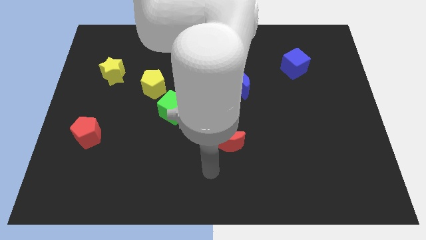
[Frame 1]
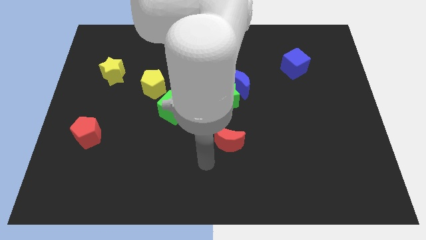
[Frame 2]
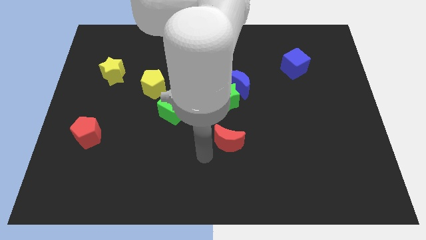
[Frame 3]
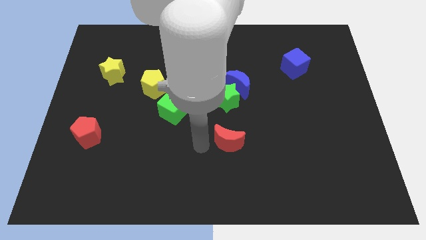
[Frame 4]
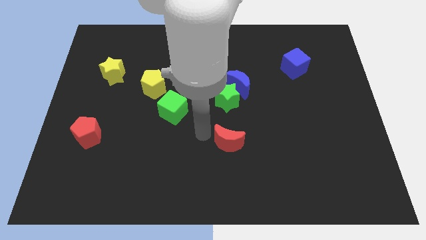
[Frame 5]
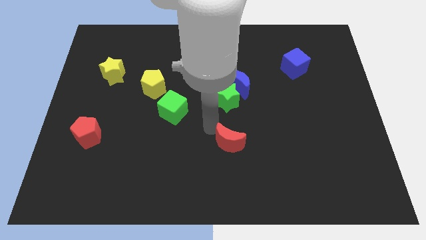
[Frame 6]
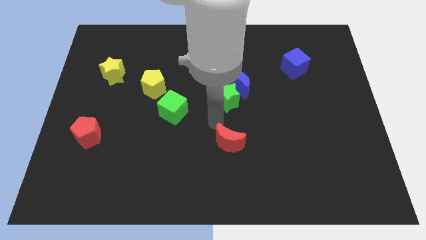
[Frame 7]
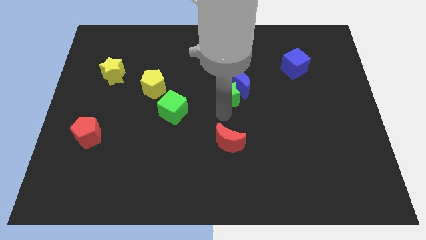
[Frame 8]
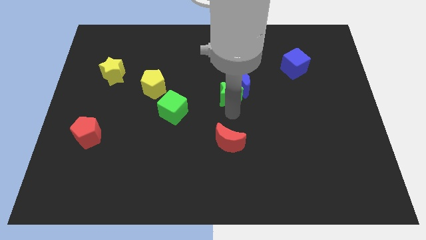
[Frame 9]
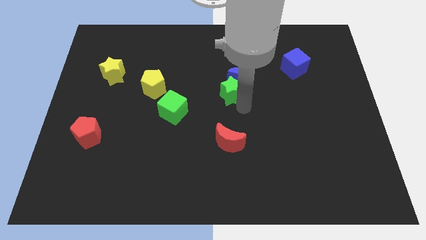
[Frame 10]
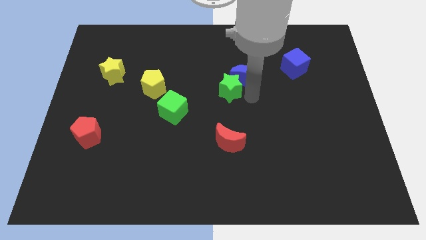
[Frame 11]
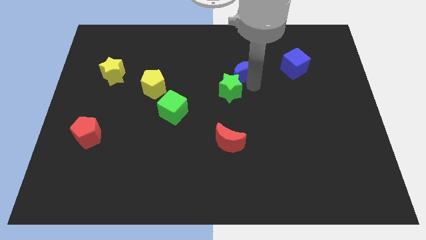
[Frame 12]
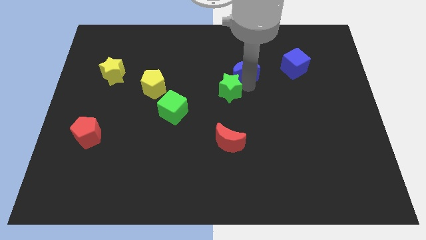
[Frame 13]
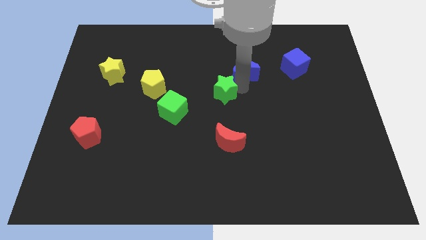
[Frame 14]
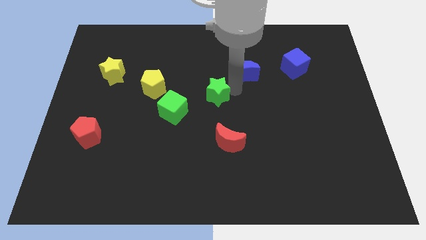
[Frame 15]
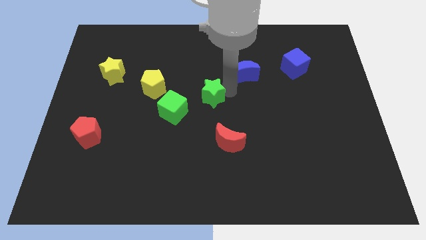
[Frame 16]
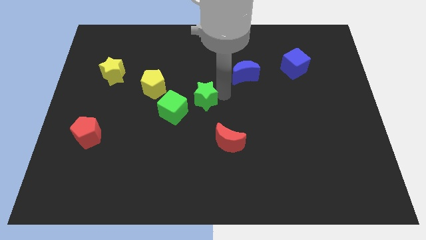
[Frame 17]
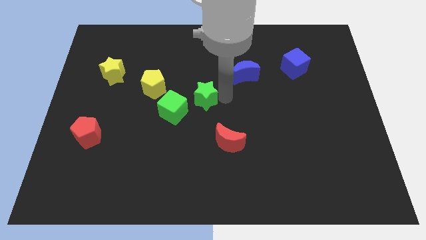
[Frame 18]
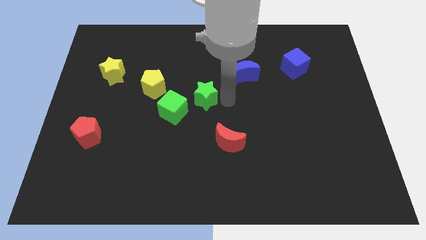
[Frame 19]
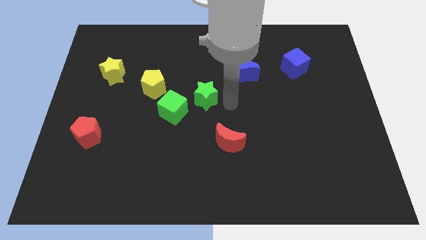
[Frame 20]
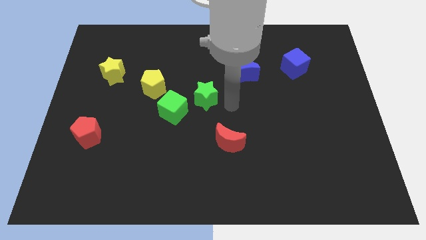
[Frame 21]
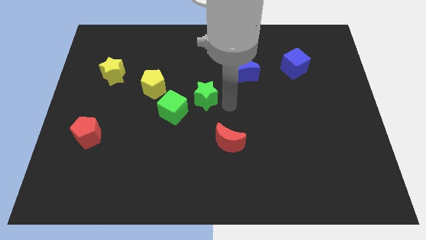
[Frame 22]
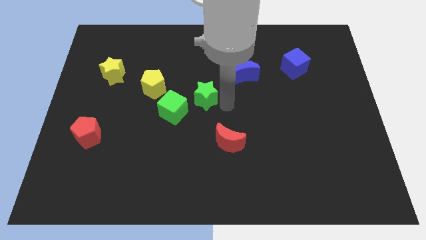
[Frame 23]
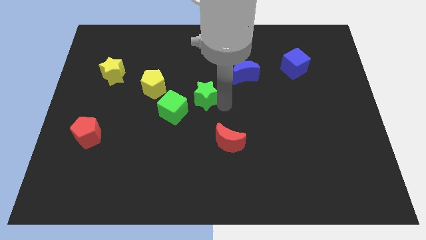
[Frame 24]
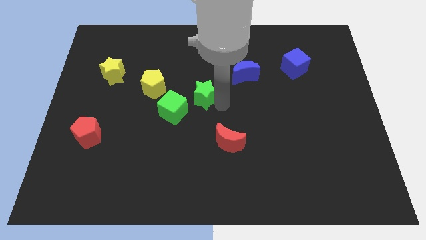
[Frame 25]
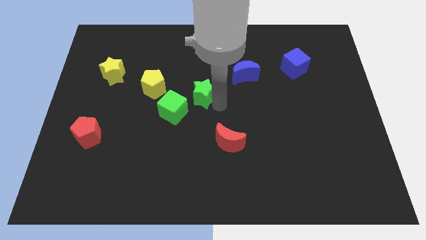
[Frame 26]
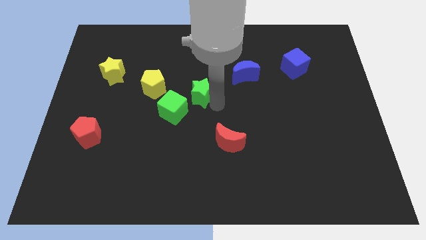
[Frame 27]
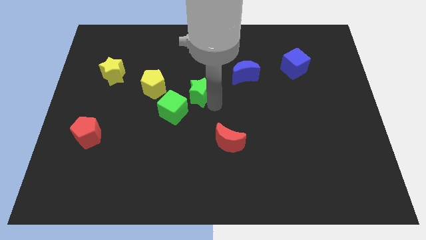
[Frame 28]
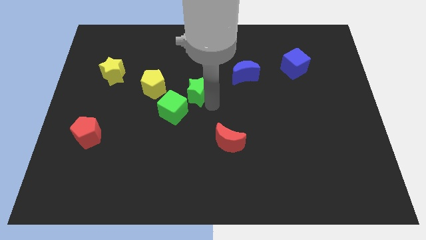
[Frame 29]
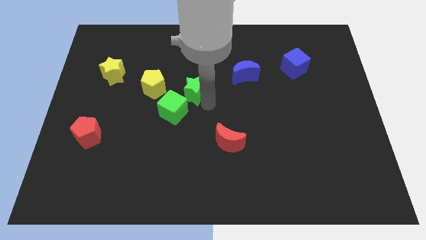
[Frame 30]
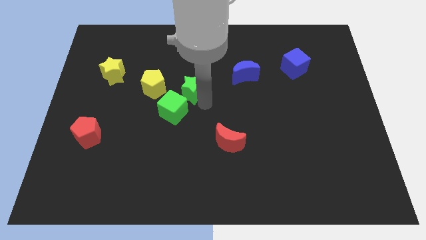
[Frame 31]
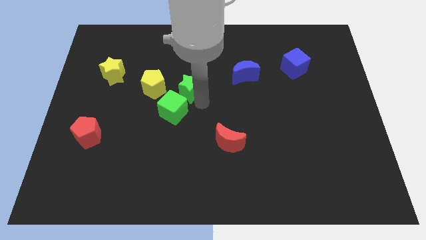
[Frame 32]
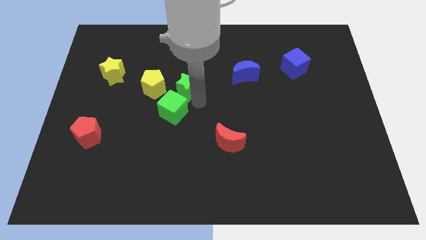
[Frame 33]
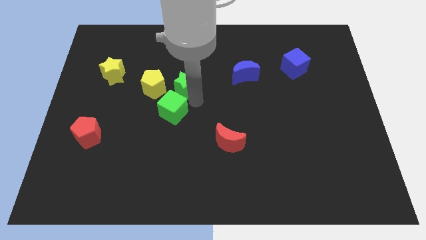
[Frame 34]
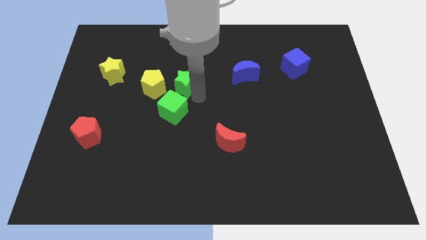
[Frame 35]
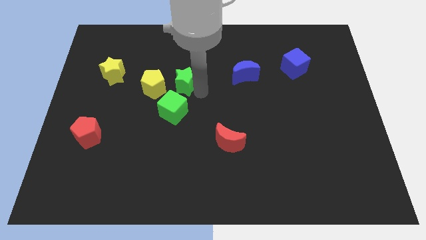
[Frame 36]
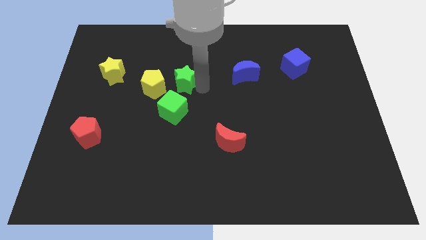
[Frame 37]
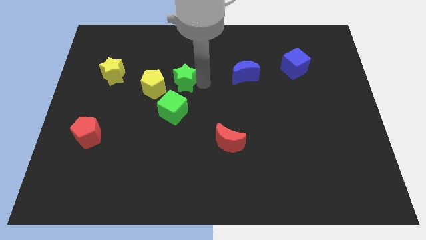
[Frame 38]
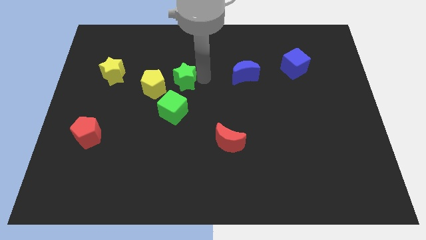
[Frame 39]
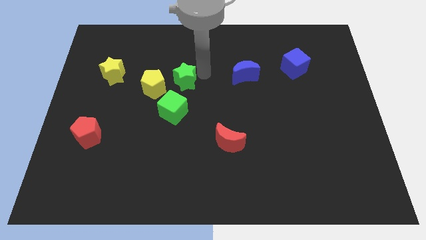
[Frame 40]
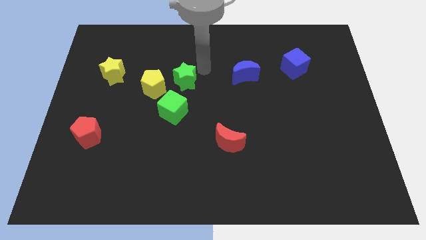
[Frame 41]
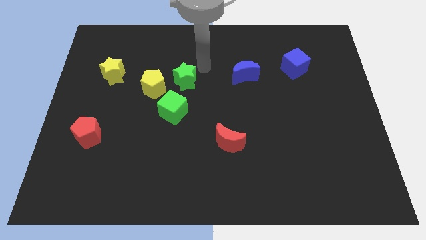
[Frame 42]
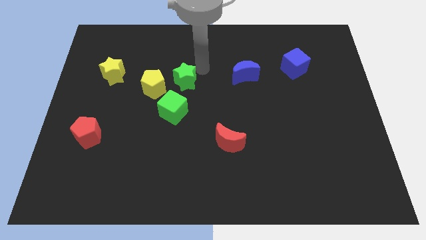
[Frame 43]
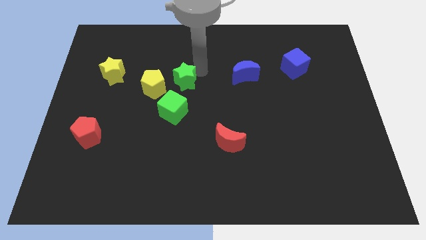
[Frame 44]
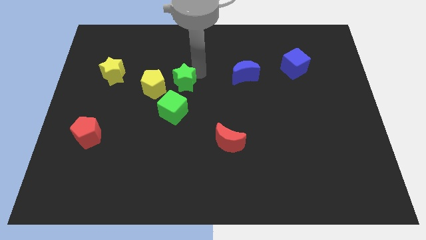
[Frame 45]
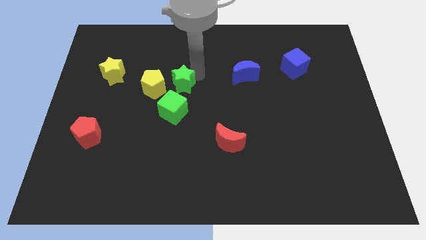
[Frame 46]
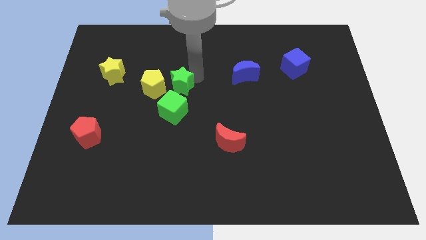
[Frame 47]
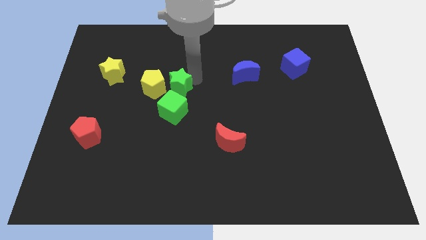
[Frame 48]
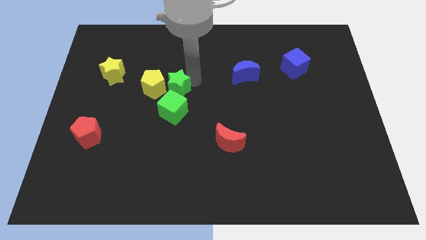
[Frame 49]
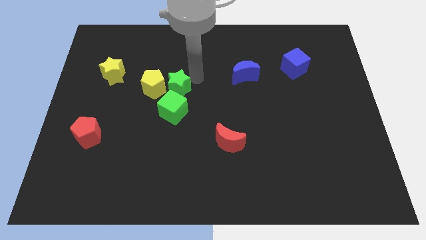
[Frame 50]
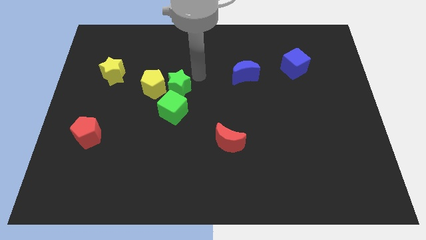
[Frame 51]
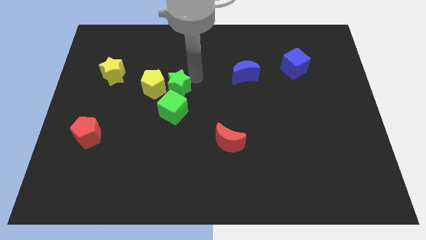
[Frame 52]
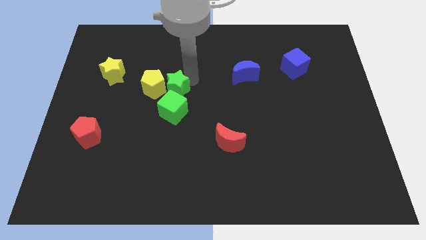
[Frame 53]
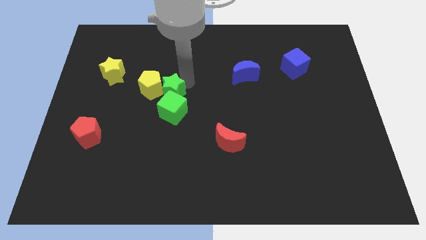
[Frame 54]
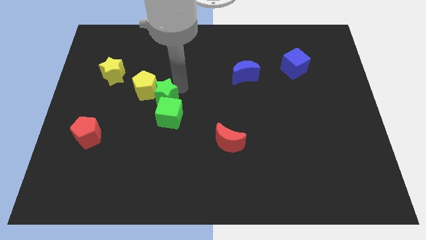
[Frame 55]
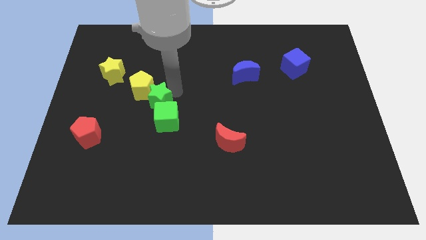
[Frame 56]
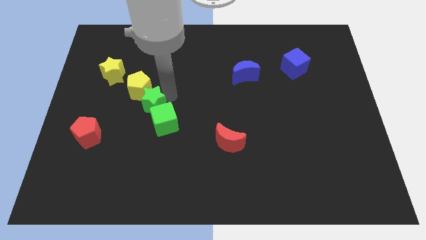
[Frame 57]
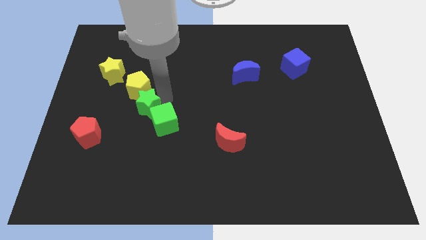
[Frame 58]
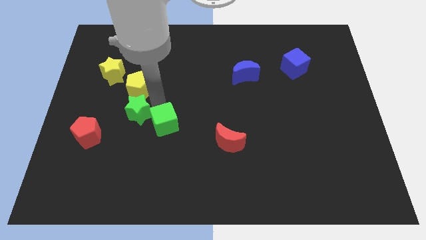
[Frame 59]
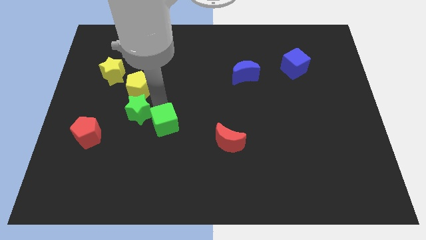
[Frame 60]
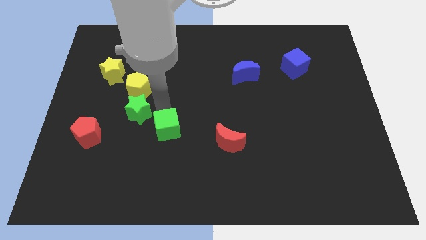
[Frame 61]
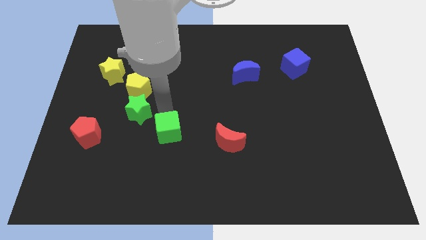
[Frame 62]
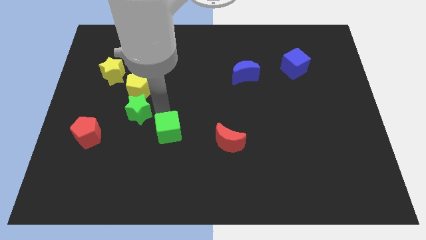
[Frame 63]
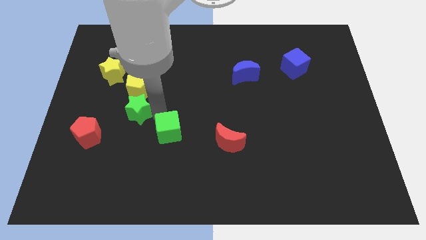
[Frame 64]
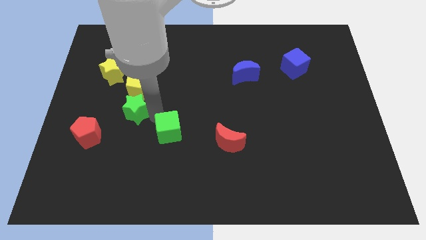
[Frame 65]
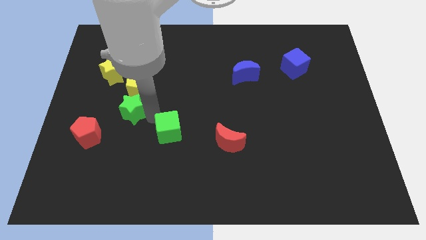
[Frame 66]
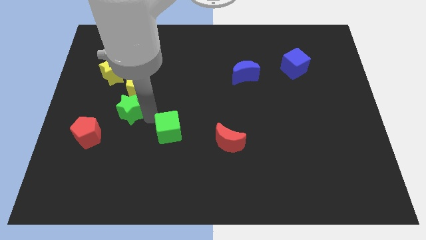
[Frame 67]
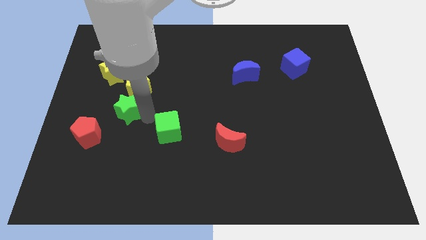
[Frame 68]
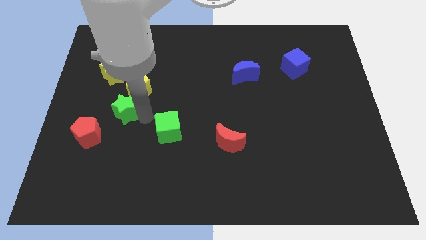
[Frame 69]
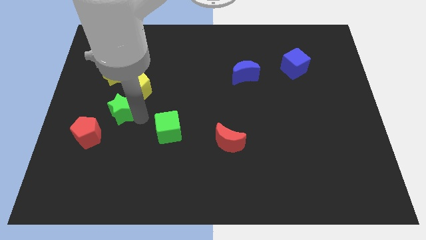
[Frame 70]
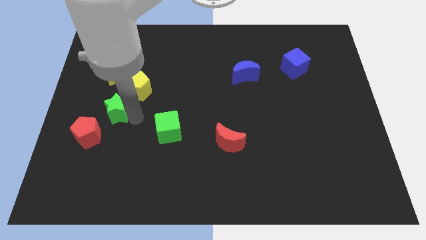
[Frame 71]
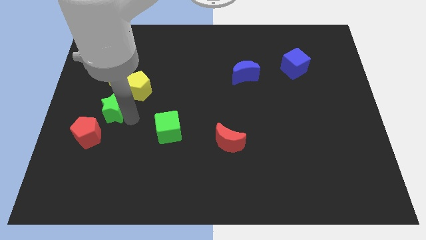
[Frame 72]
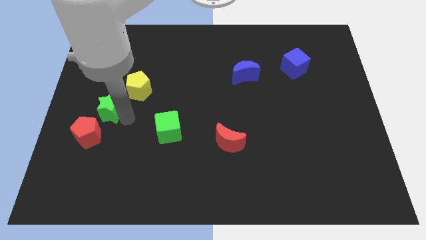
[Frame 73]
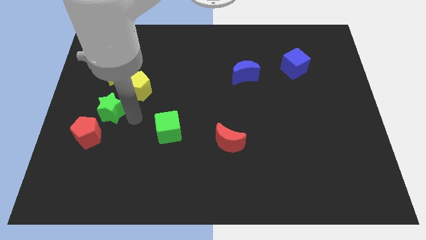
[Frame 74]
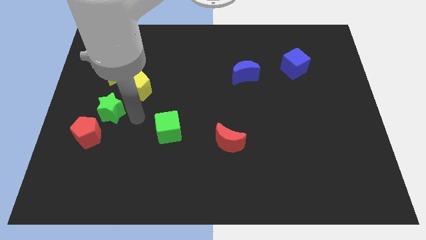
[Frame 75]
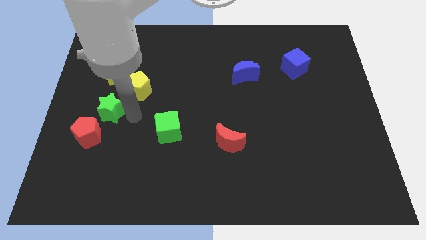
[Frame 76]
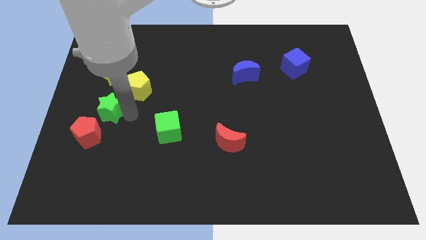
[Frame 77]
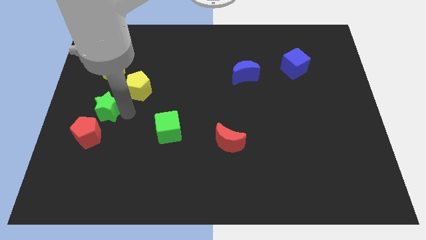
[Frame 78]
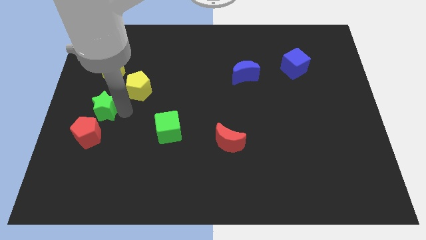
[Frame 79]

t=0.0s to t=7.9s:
slide the green star to the center left
